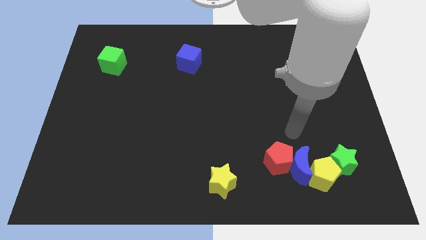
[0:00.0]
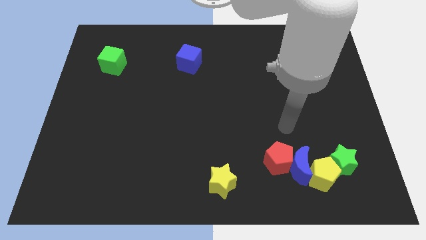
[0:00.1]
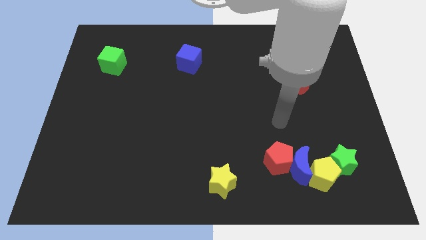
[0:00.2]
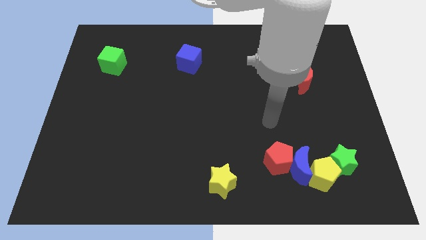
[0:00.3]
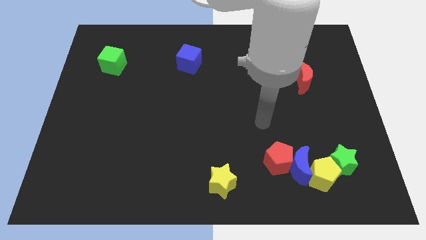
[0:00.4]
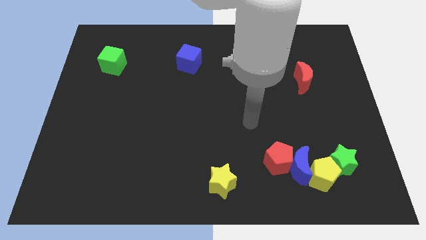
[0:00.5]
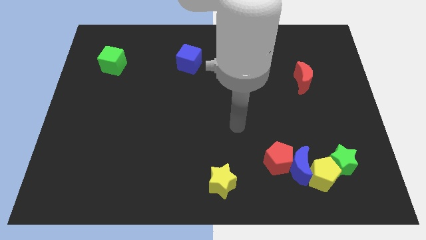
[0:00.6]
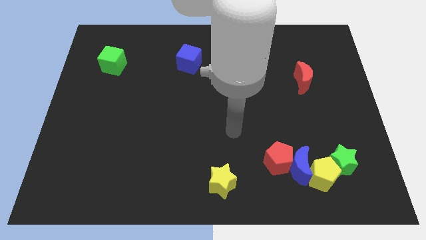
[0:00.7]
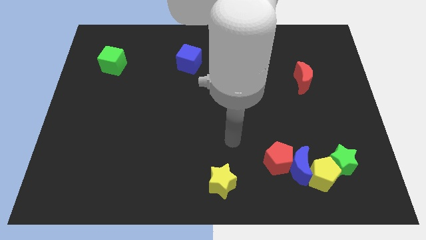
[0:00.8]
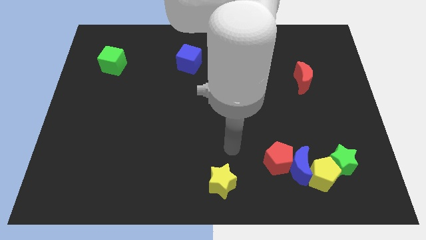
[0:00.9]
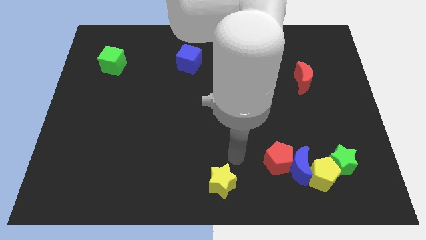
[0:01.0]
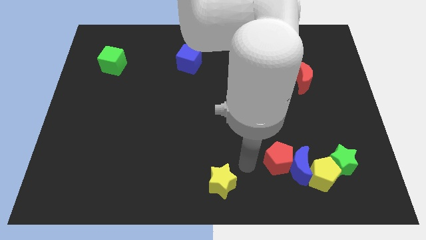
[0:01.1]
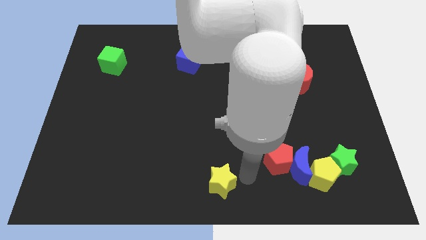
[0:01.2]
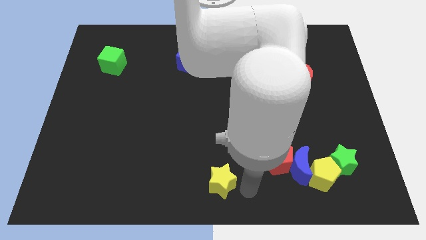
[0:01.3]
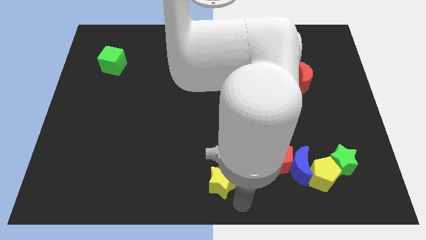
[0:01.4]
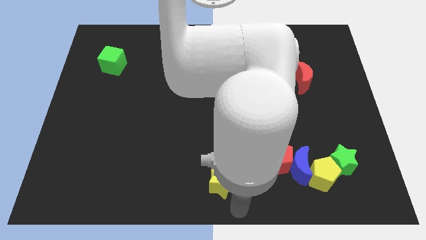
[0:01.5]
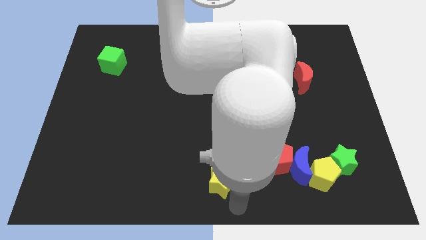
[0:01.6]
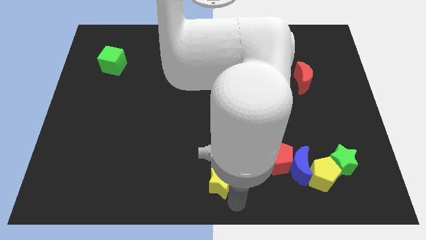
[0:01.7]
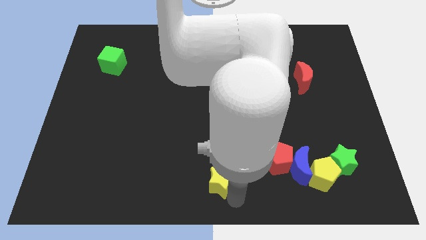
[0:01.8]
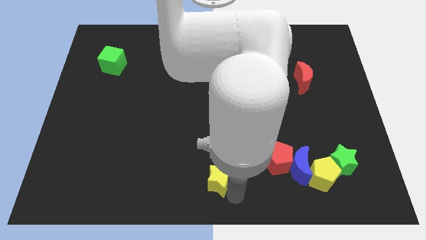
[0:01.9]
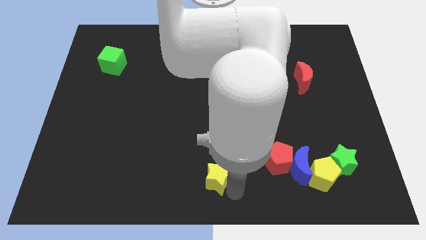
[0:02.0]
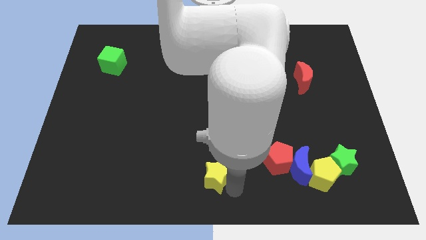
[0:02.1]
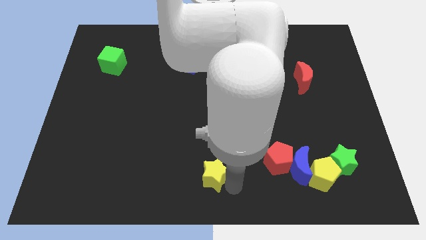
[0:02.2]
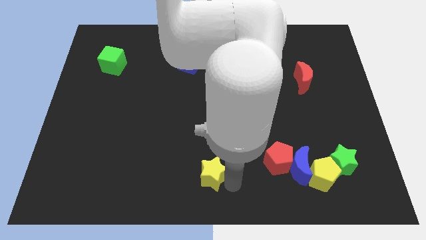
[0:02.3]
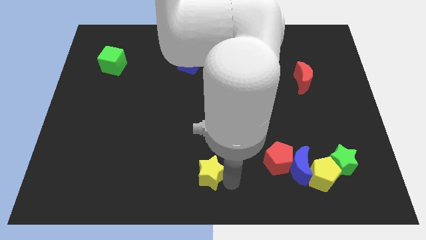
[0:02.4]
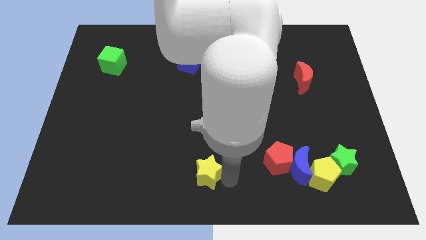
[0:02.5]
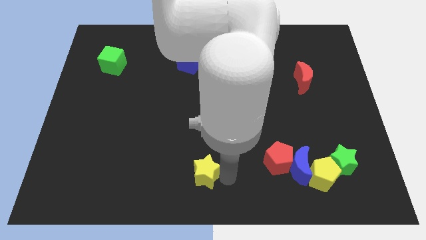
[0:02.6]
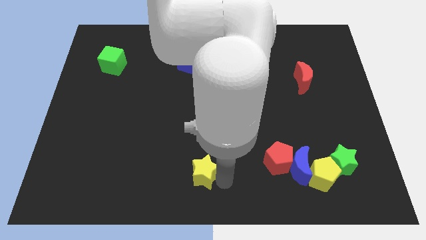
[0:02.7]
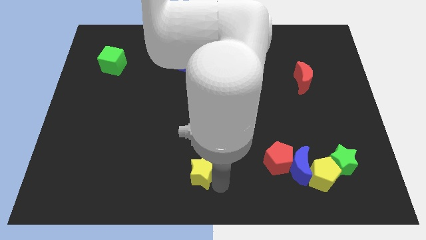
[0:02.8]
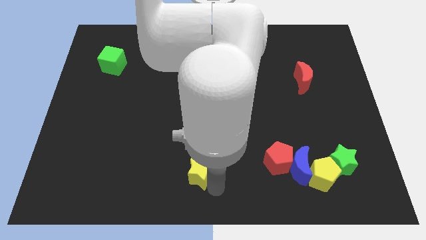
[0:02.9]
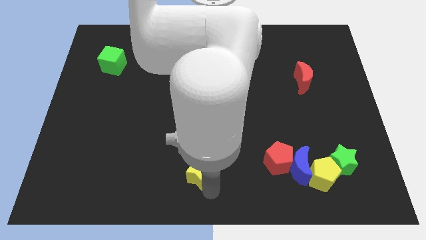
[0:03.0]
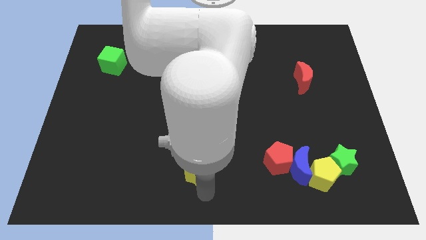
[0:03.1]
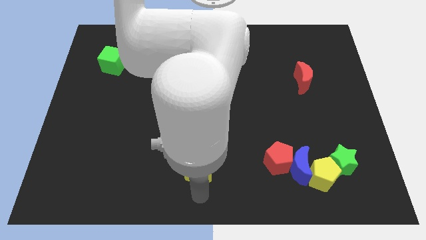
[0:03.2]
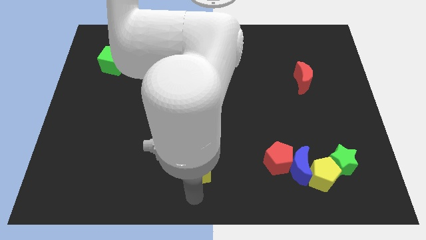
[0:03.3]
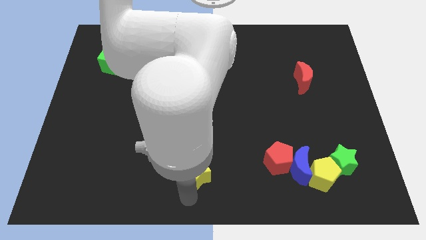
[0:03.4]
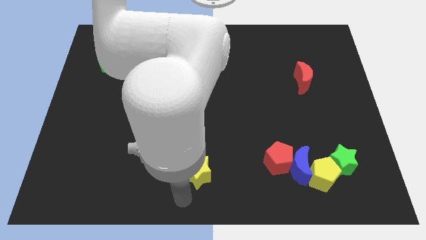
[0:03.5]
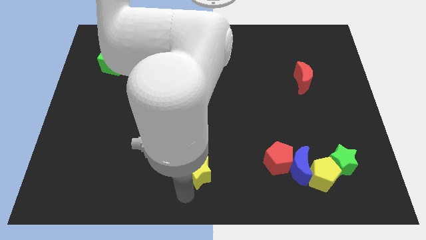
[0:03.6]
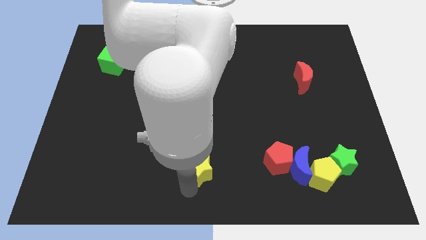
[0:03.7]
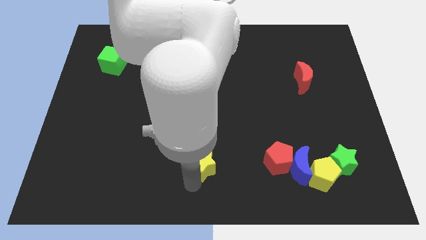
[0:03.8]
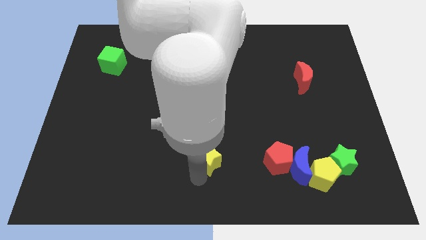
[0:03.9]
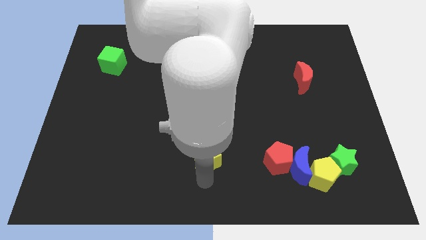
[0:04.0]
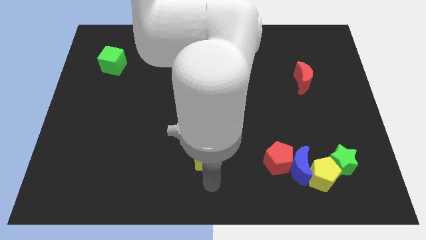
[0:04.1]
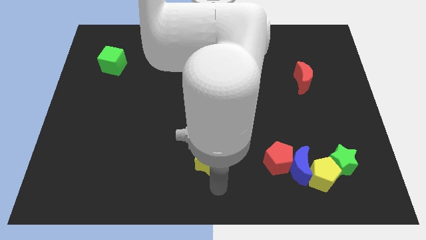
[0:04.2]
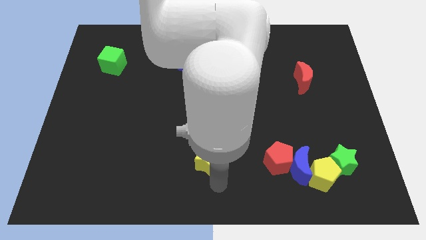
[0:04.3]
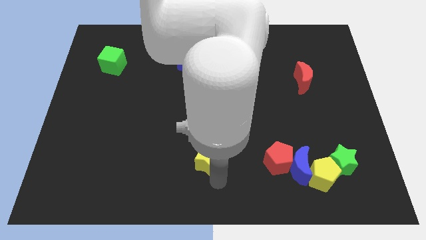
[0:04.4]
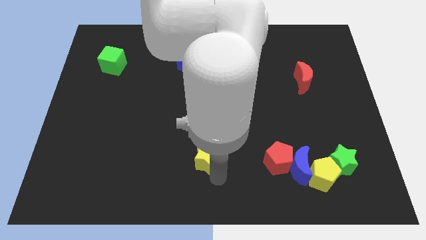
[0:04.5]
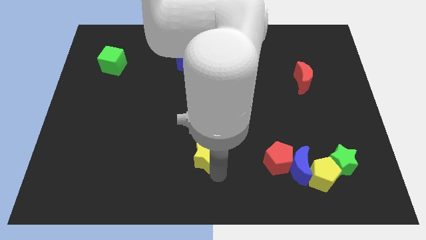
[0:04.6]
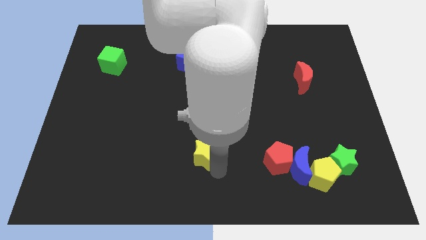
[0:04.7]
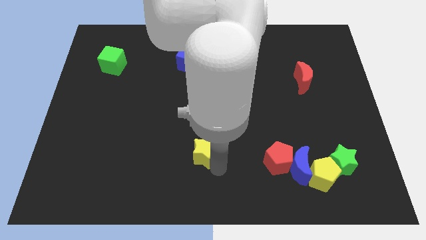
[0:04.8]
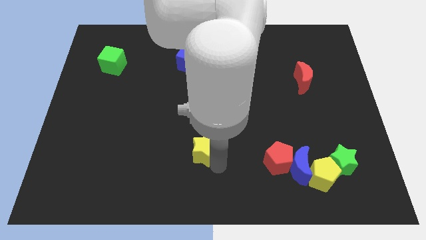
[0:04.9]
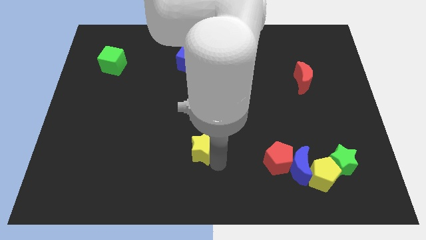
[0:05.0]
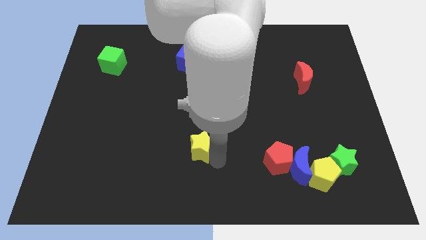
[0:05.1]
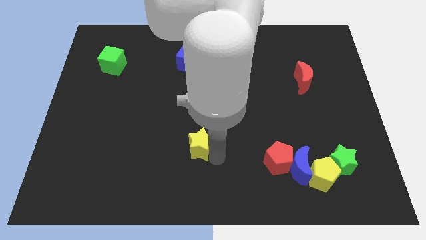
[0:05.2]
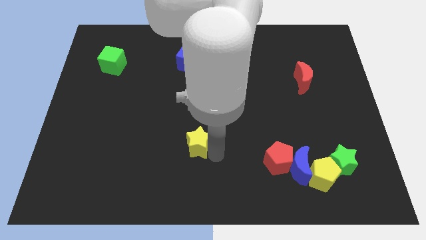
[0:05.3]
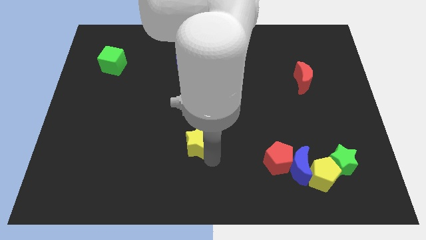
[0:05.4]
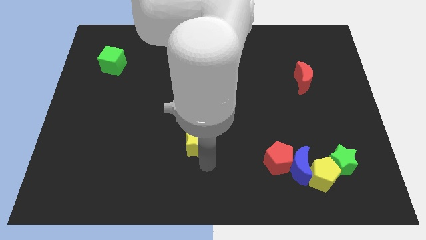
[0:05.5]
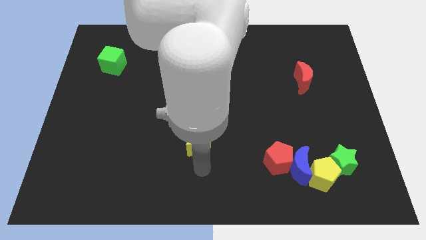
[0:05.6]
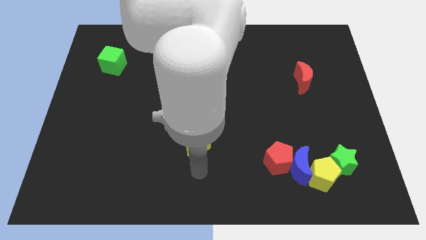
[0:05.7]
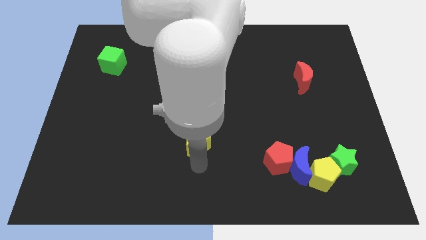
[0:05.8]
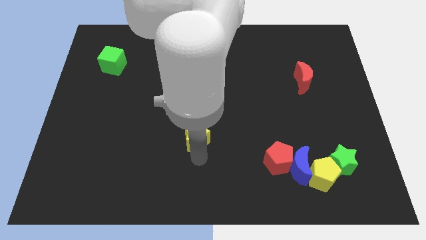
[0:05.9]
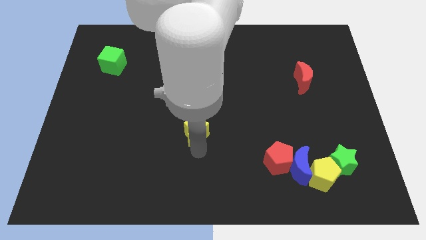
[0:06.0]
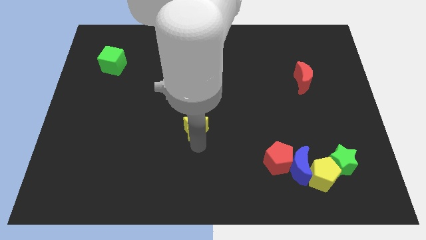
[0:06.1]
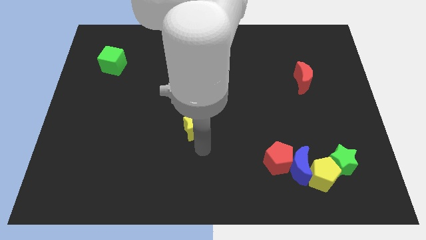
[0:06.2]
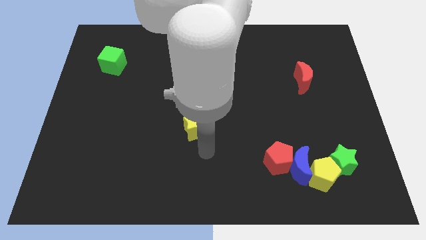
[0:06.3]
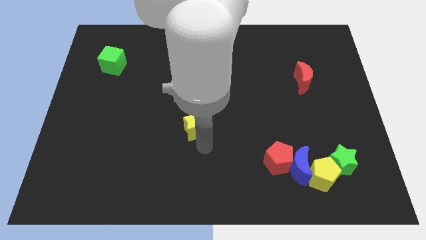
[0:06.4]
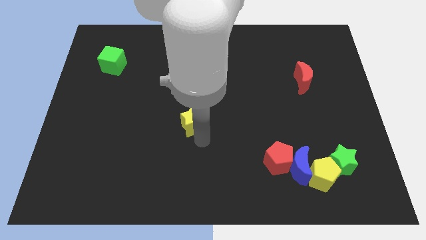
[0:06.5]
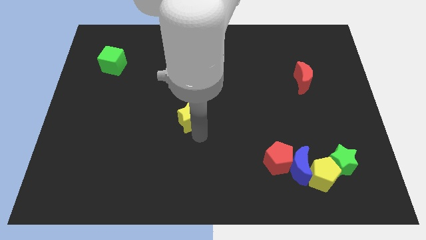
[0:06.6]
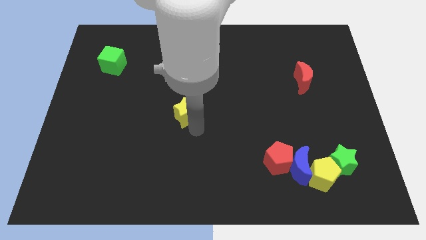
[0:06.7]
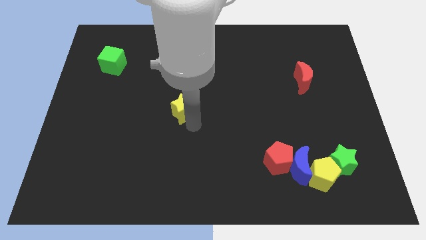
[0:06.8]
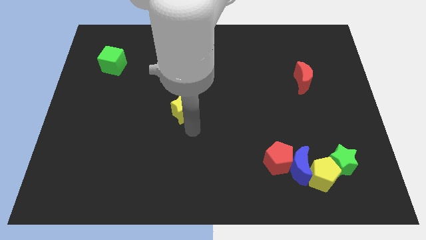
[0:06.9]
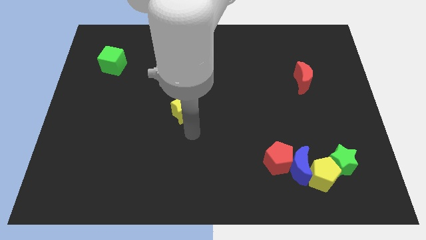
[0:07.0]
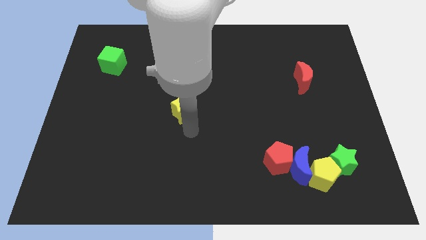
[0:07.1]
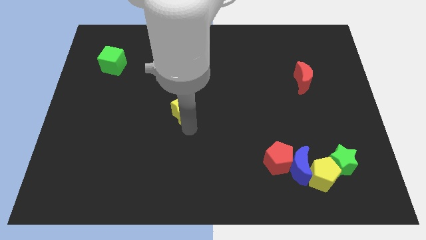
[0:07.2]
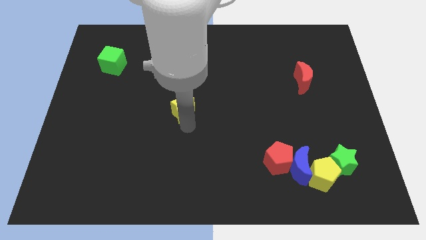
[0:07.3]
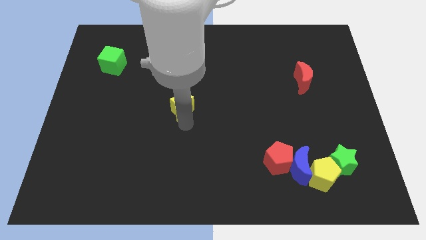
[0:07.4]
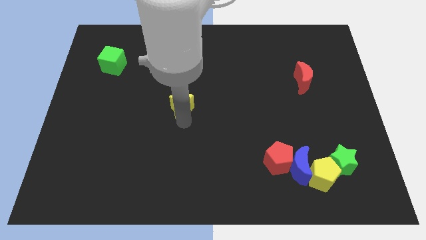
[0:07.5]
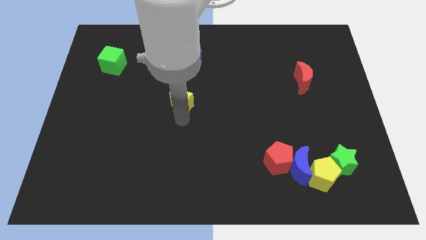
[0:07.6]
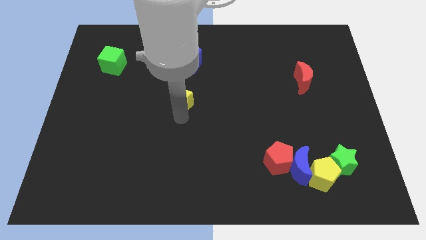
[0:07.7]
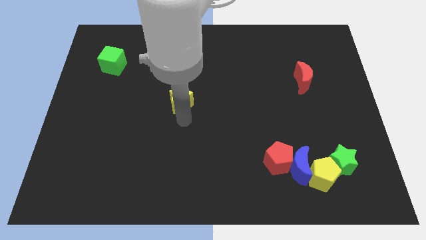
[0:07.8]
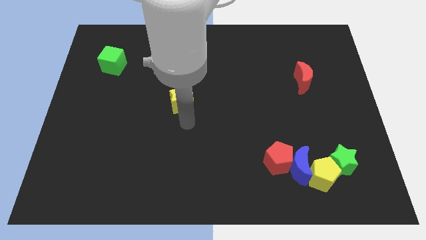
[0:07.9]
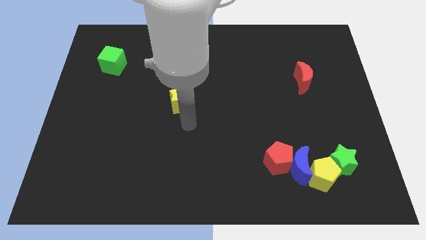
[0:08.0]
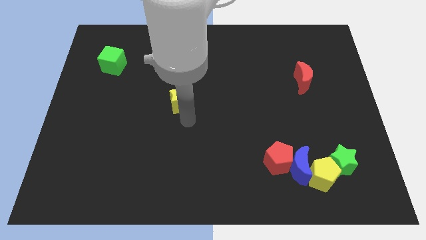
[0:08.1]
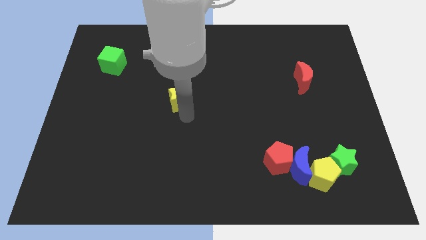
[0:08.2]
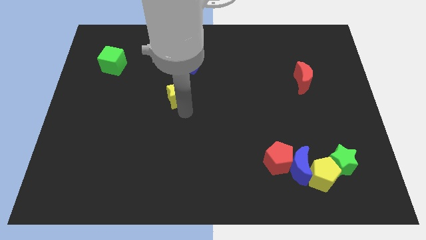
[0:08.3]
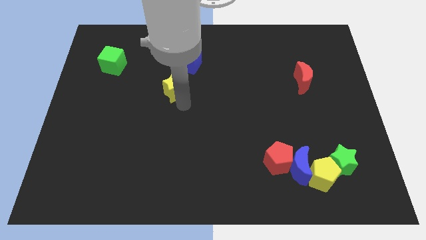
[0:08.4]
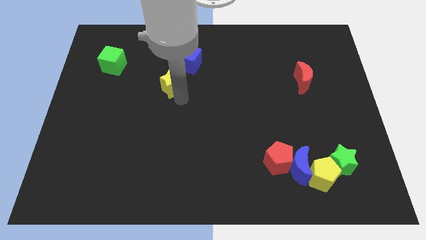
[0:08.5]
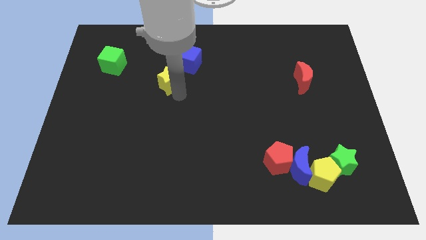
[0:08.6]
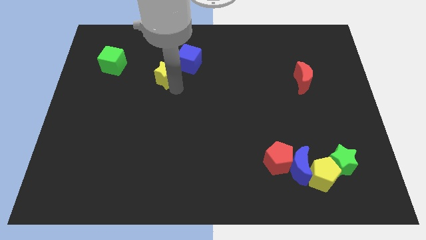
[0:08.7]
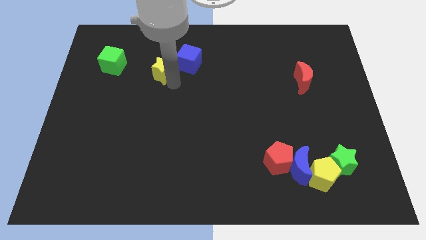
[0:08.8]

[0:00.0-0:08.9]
push the yellow star left of the blue cube
